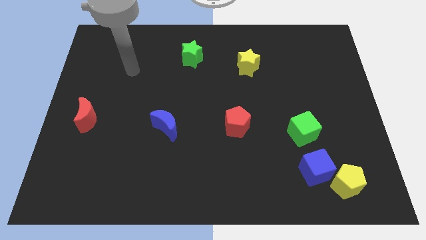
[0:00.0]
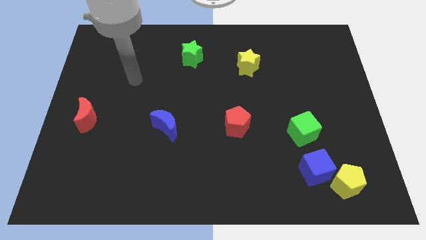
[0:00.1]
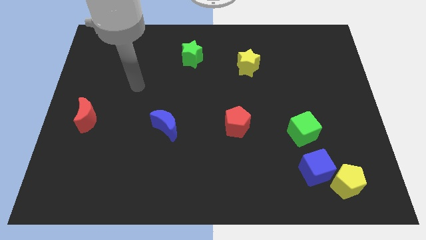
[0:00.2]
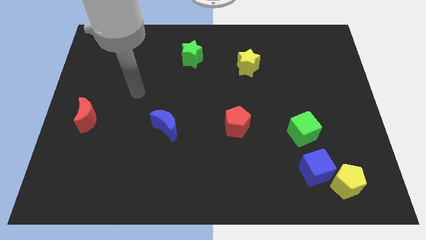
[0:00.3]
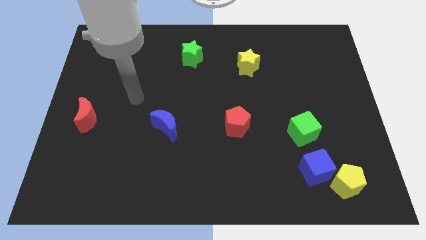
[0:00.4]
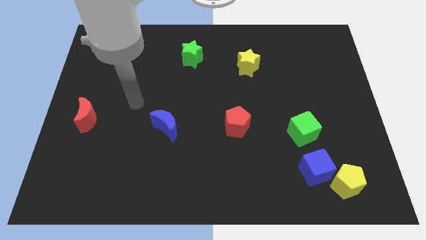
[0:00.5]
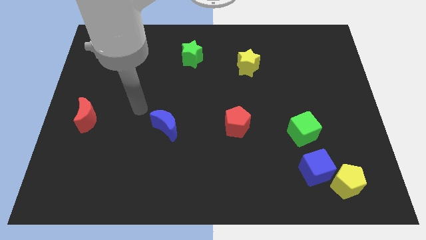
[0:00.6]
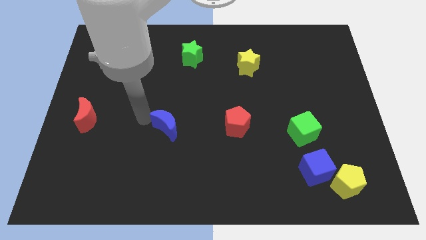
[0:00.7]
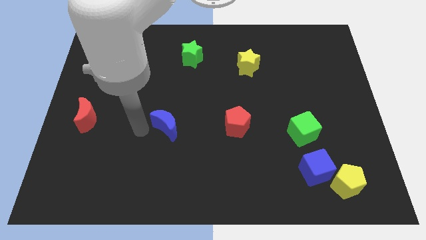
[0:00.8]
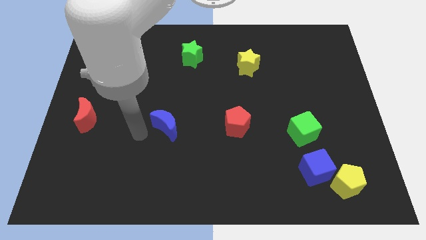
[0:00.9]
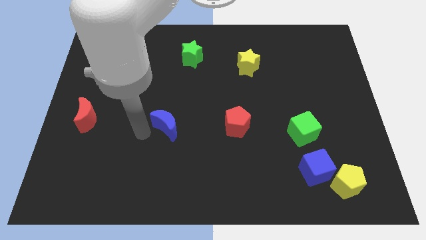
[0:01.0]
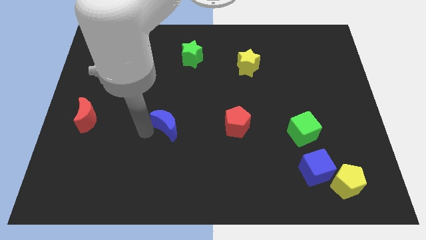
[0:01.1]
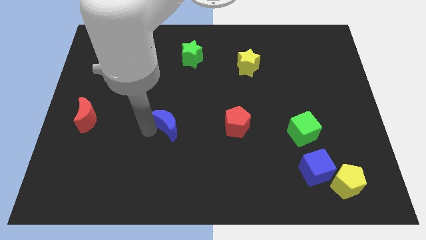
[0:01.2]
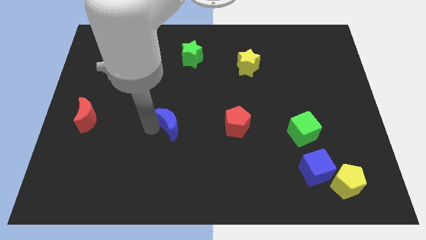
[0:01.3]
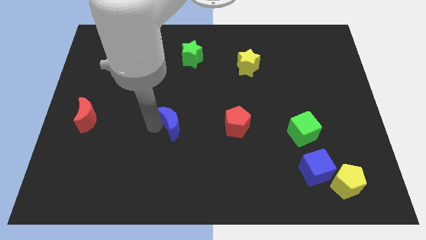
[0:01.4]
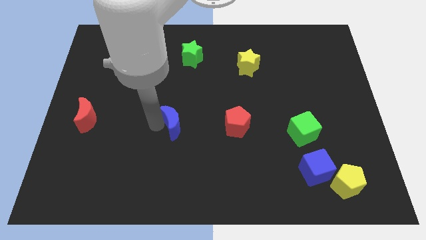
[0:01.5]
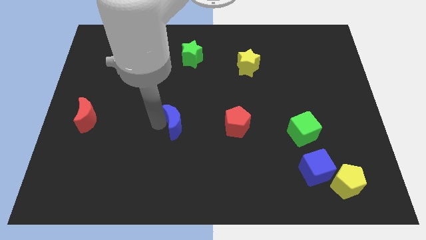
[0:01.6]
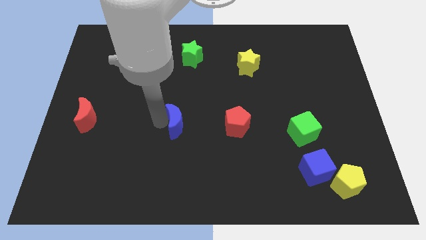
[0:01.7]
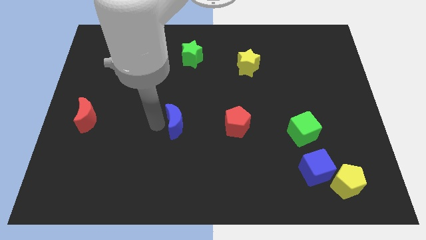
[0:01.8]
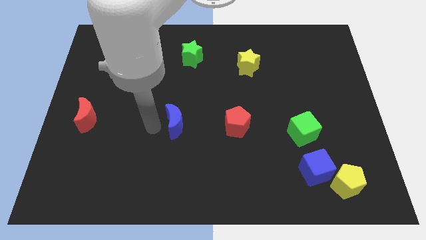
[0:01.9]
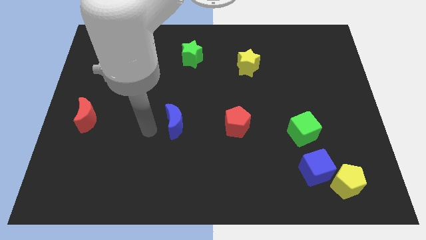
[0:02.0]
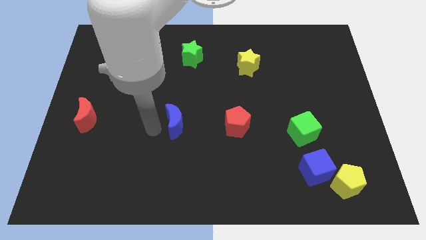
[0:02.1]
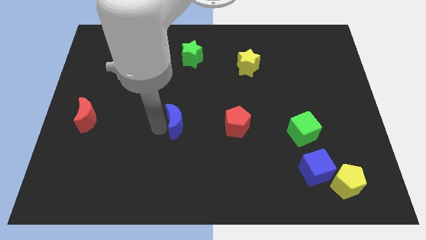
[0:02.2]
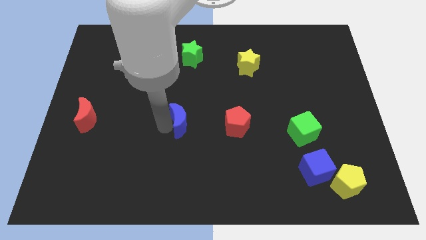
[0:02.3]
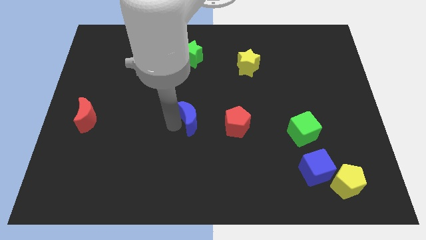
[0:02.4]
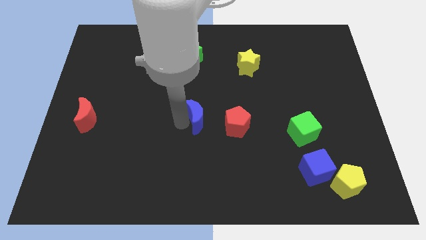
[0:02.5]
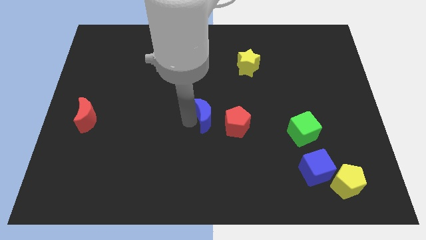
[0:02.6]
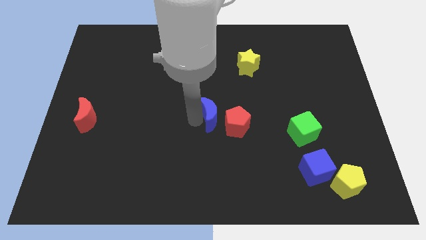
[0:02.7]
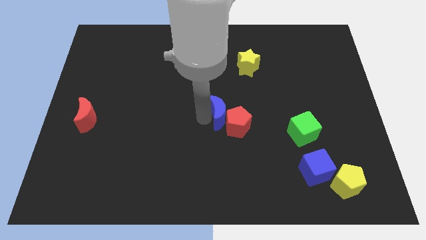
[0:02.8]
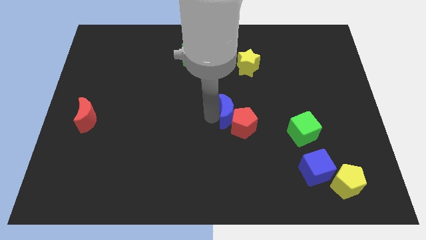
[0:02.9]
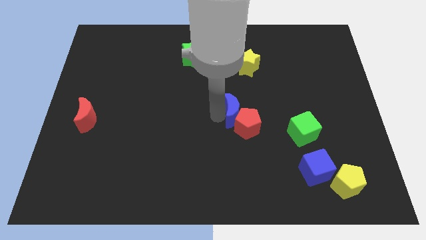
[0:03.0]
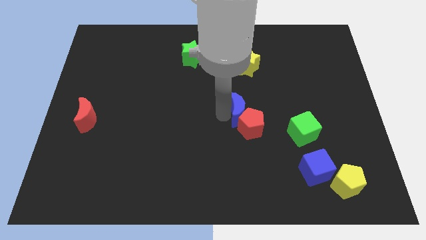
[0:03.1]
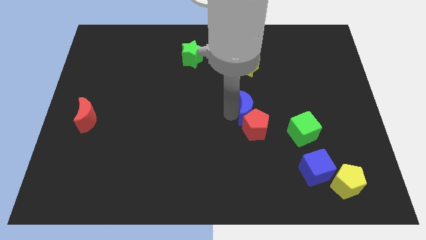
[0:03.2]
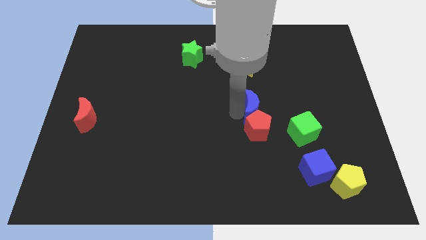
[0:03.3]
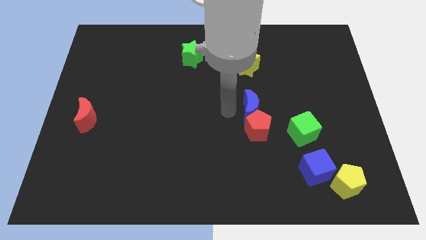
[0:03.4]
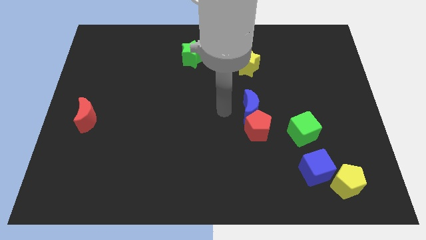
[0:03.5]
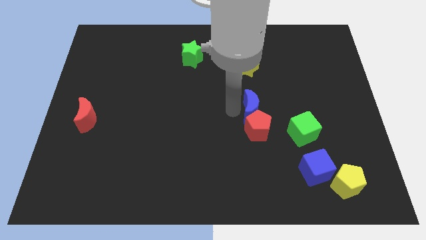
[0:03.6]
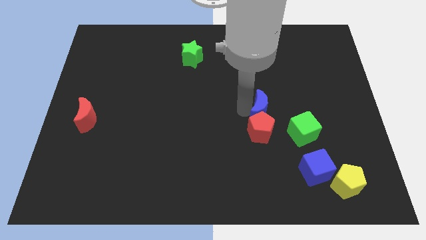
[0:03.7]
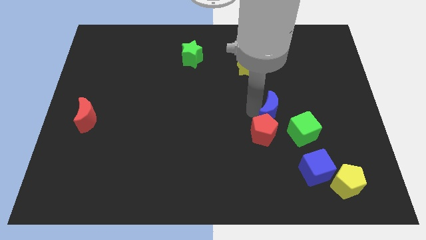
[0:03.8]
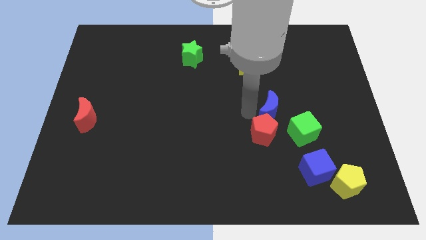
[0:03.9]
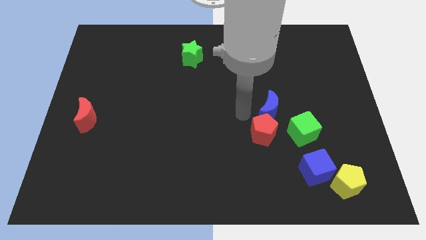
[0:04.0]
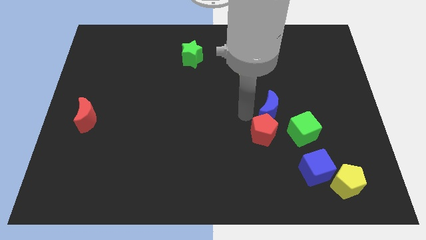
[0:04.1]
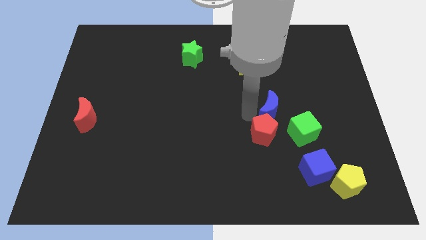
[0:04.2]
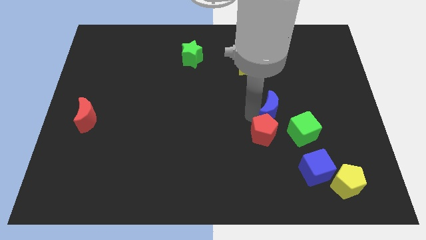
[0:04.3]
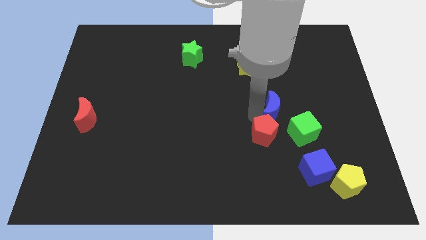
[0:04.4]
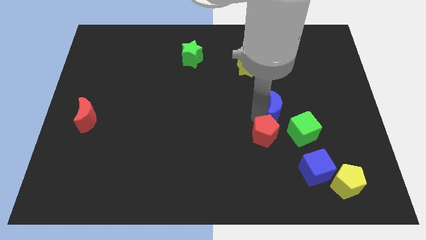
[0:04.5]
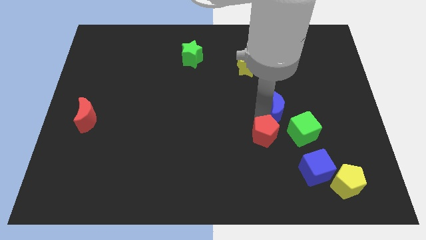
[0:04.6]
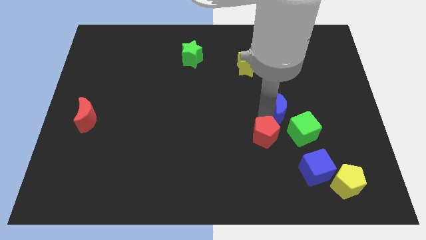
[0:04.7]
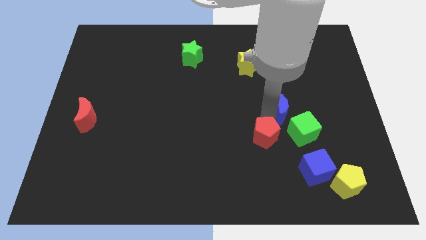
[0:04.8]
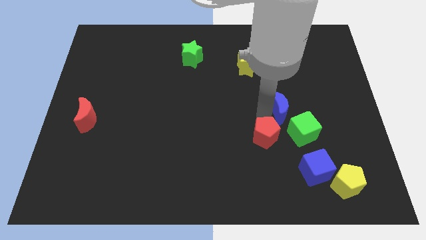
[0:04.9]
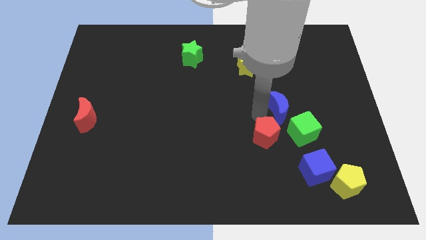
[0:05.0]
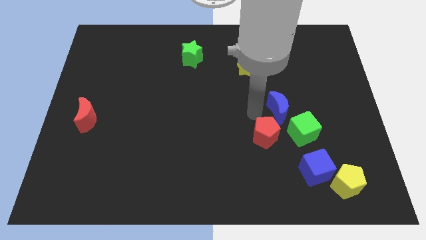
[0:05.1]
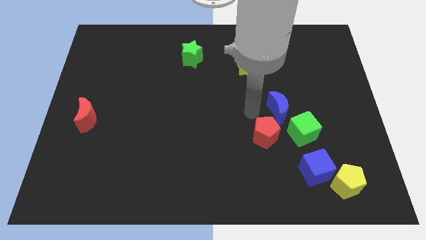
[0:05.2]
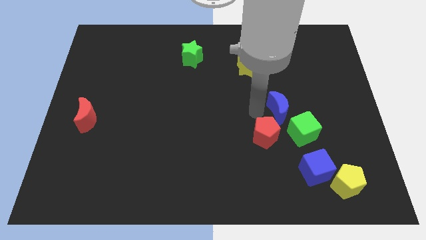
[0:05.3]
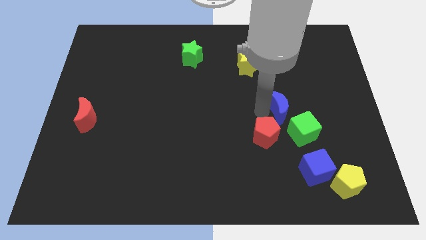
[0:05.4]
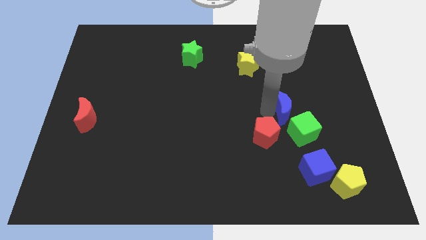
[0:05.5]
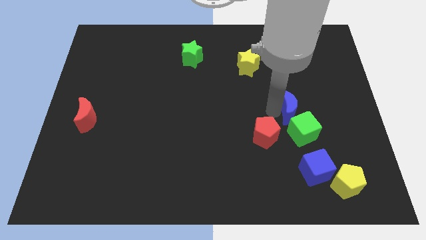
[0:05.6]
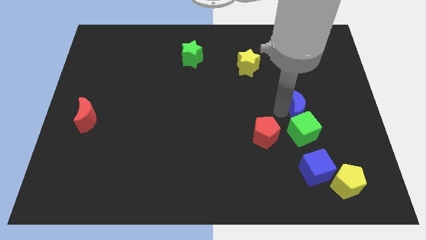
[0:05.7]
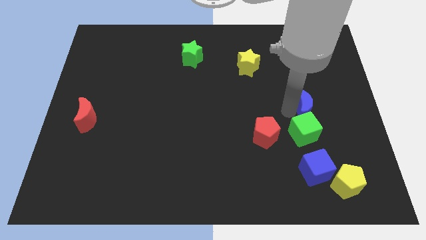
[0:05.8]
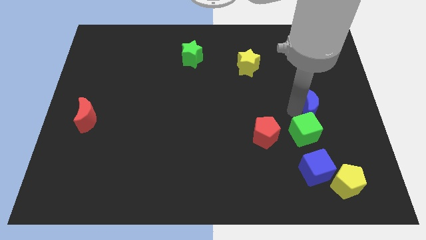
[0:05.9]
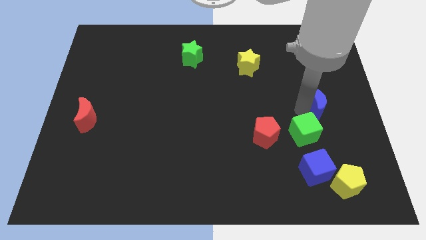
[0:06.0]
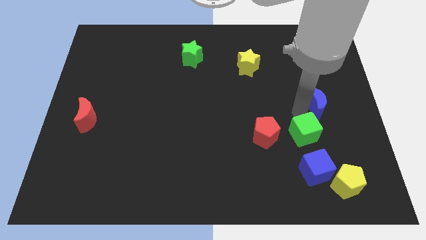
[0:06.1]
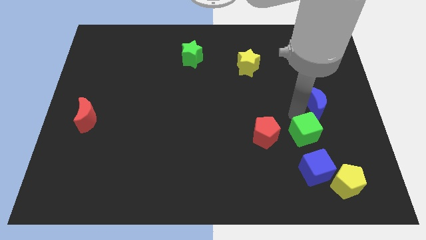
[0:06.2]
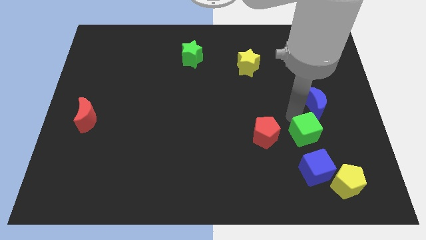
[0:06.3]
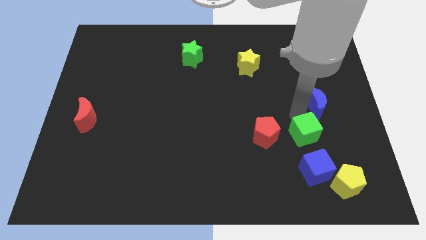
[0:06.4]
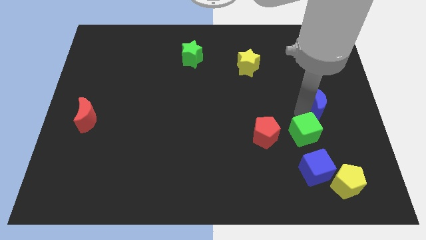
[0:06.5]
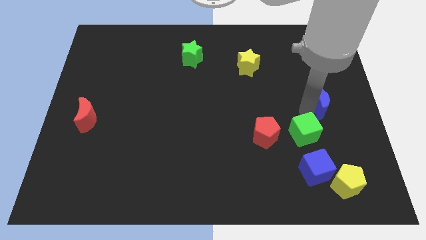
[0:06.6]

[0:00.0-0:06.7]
move the blue moon to the right side

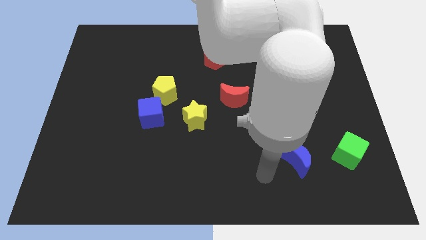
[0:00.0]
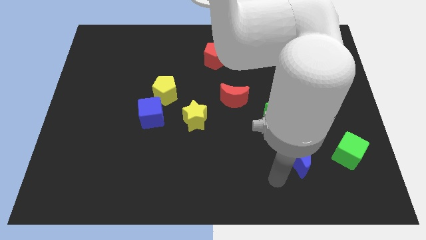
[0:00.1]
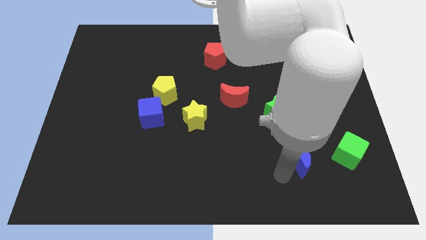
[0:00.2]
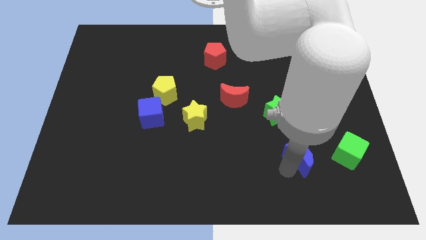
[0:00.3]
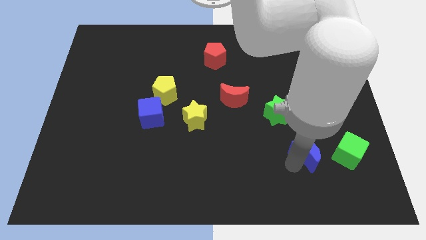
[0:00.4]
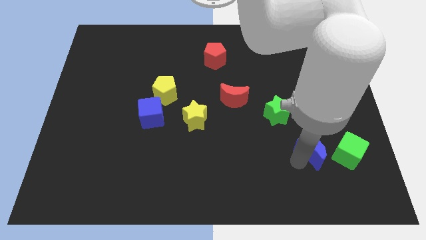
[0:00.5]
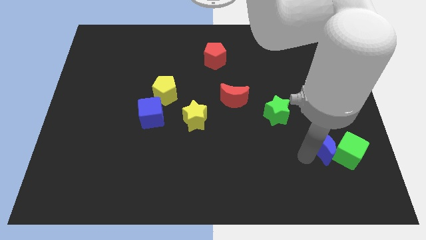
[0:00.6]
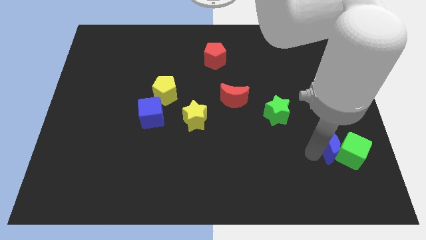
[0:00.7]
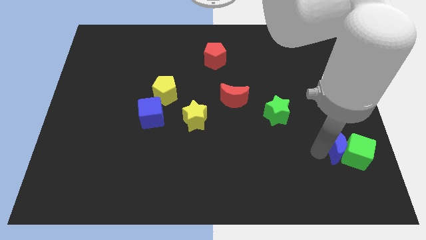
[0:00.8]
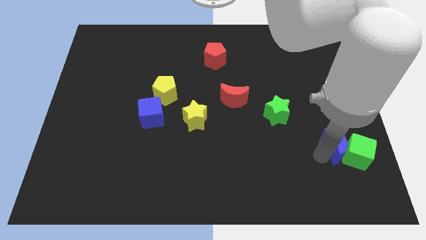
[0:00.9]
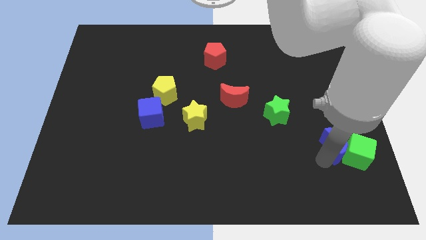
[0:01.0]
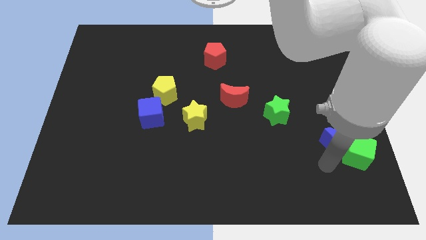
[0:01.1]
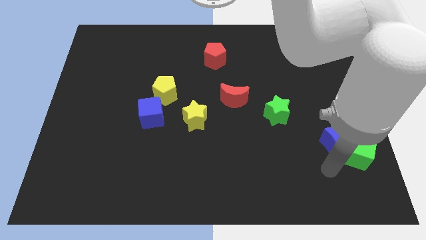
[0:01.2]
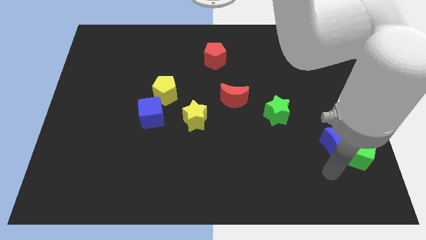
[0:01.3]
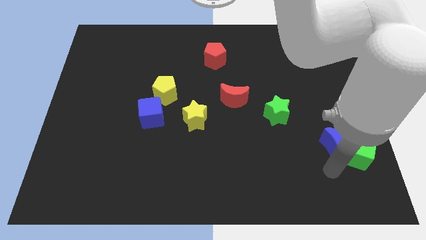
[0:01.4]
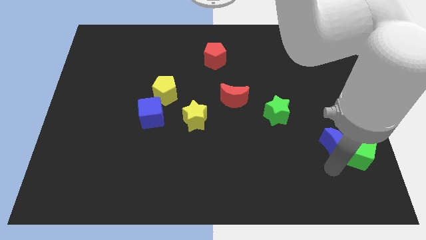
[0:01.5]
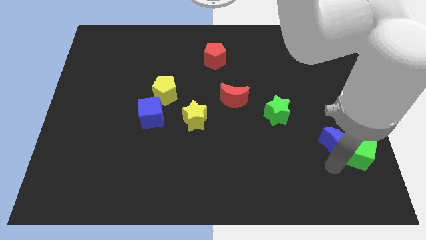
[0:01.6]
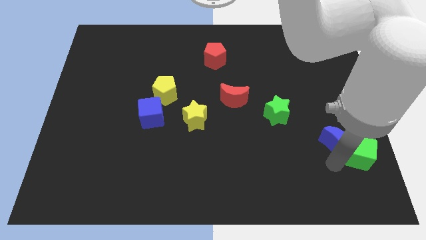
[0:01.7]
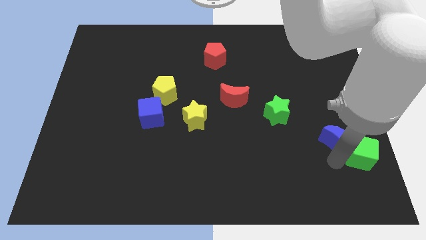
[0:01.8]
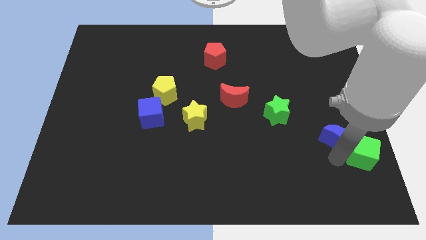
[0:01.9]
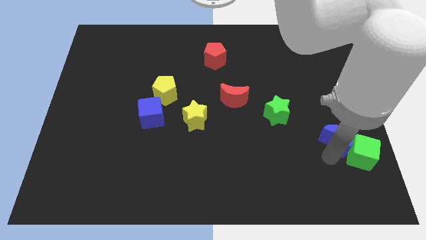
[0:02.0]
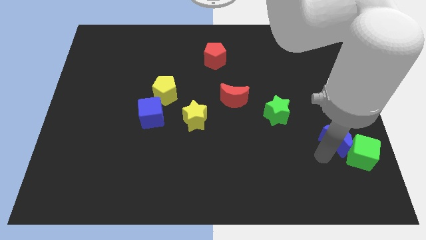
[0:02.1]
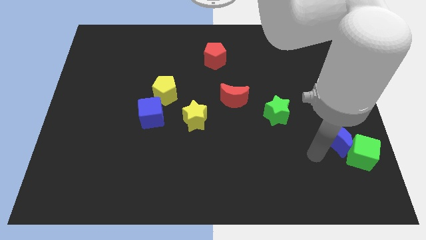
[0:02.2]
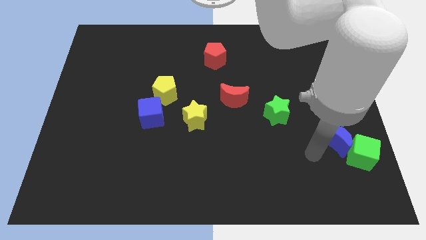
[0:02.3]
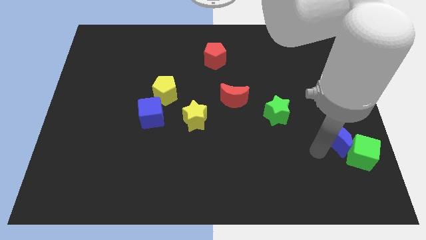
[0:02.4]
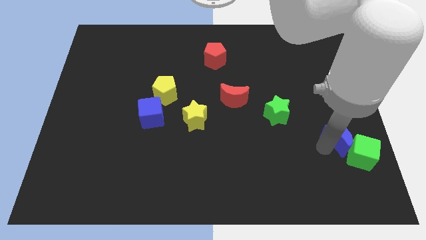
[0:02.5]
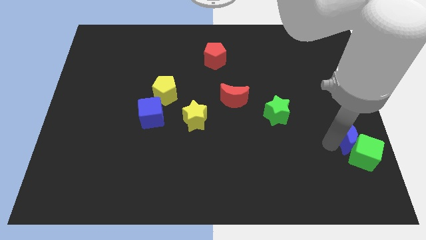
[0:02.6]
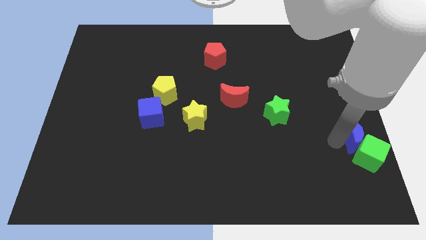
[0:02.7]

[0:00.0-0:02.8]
push the blue moon to the right side of the board
